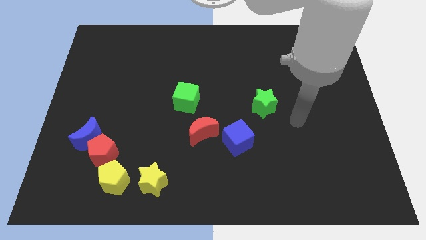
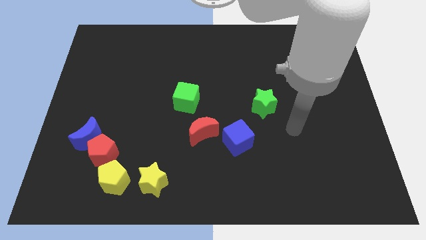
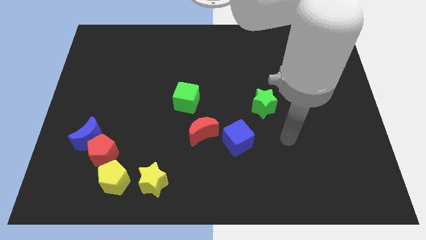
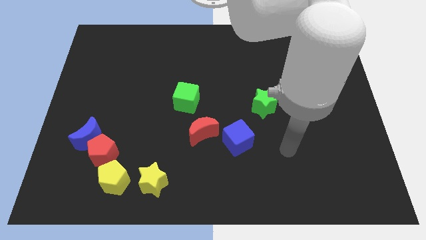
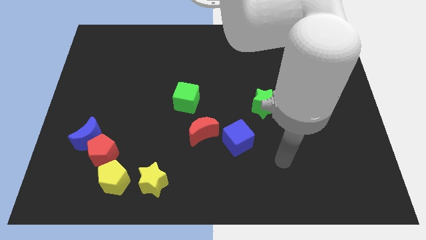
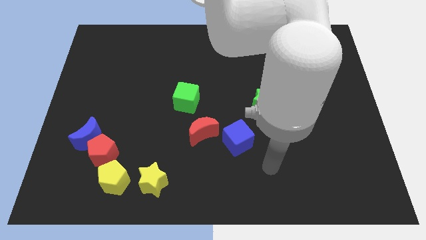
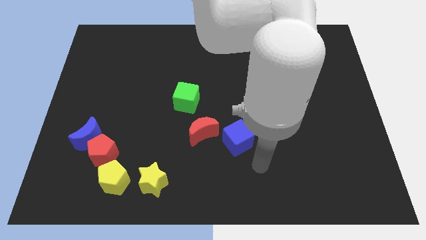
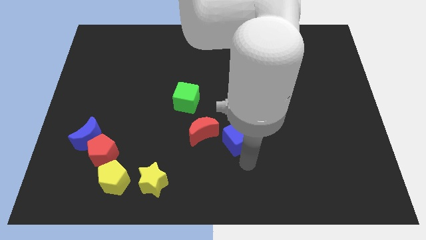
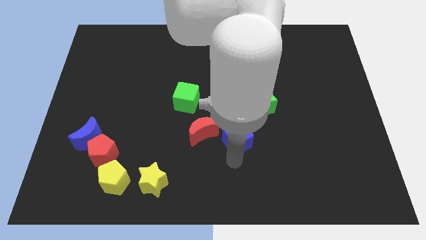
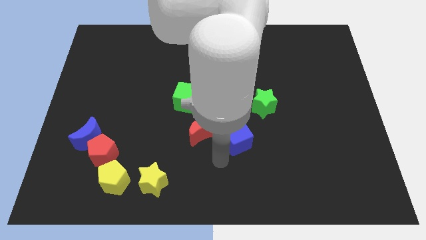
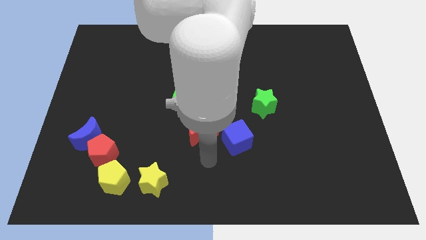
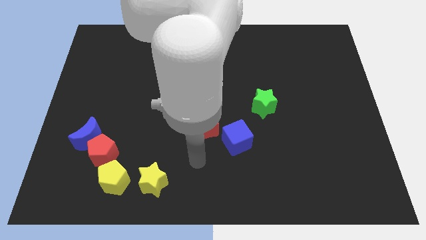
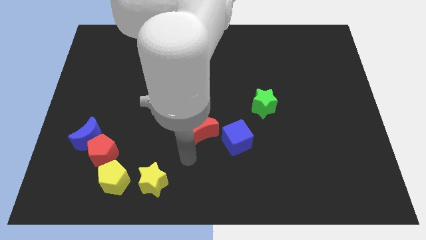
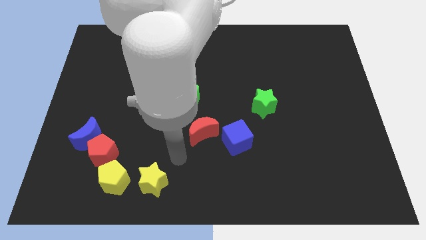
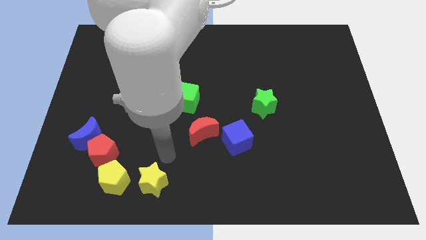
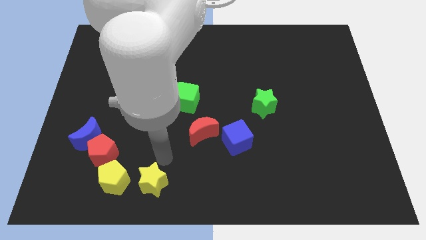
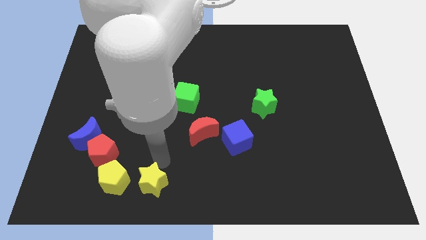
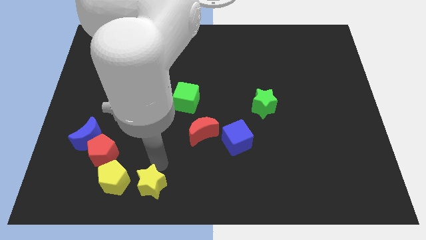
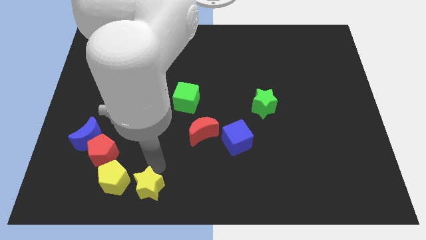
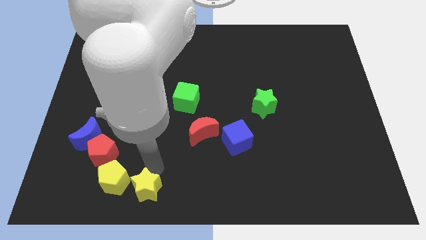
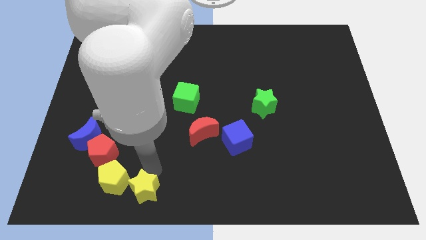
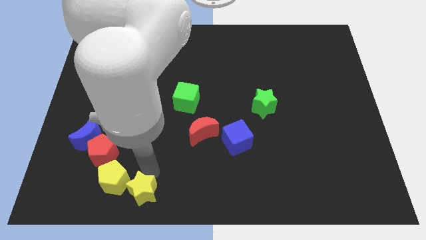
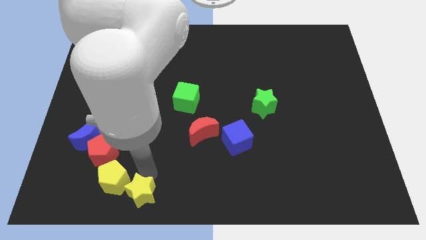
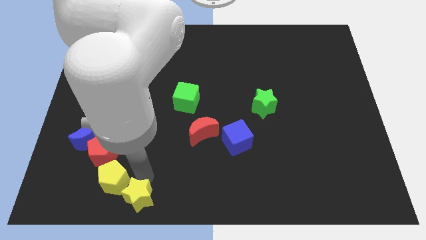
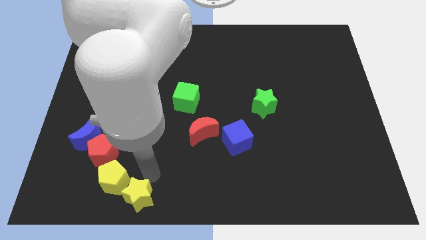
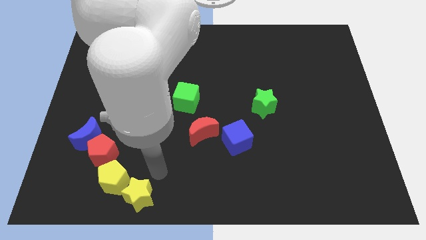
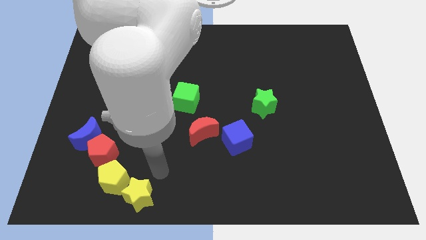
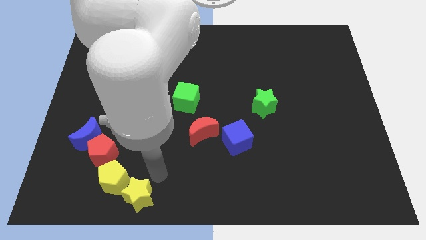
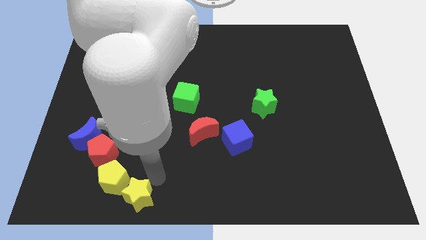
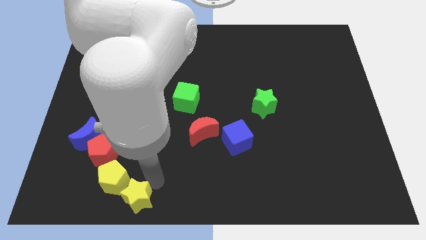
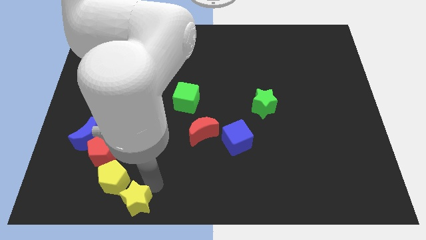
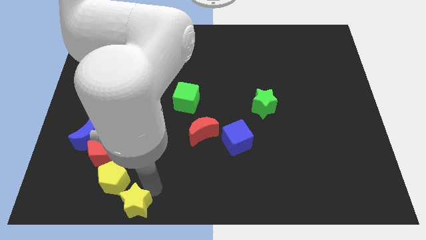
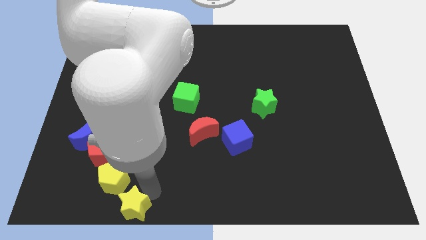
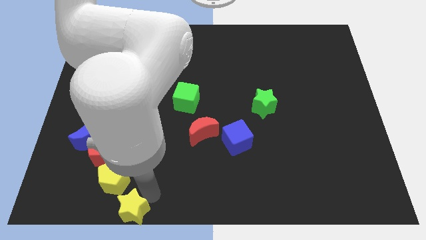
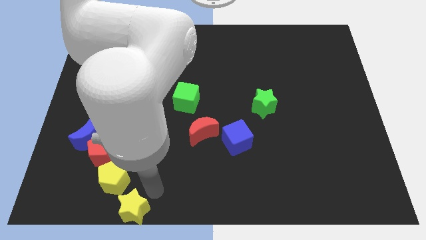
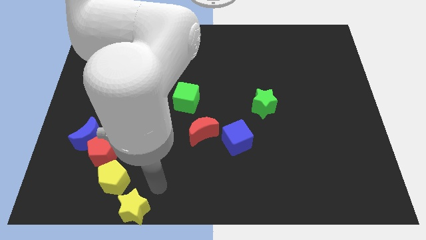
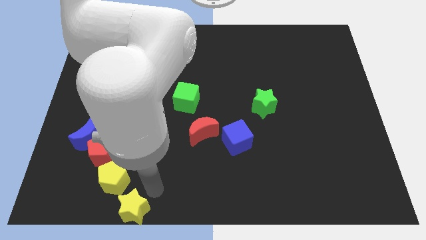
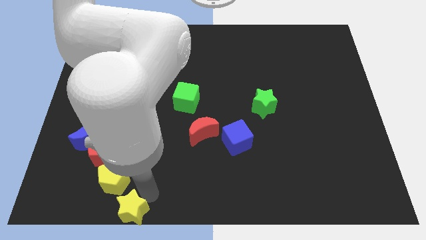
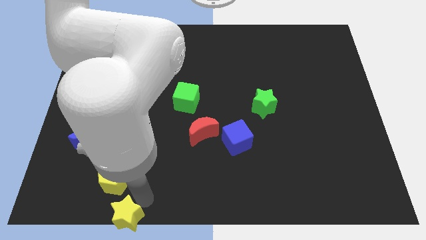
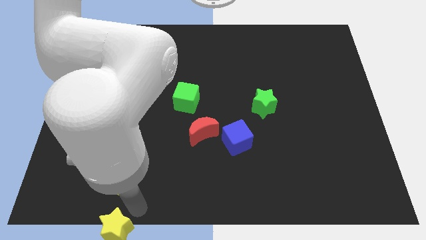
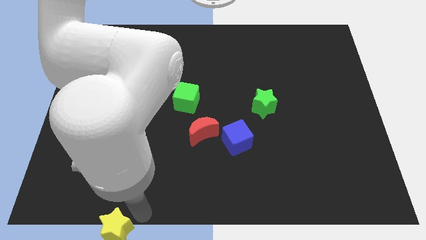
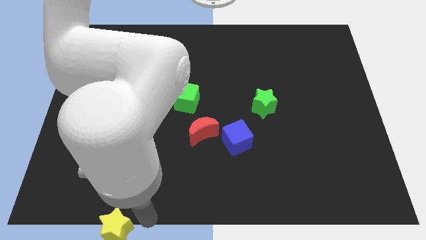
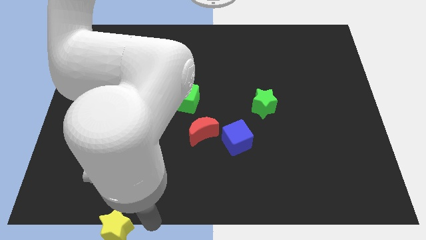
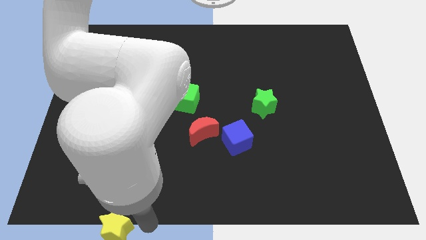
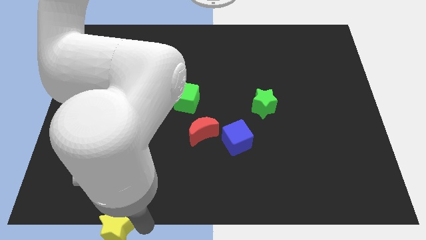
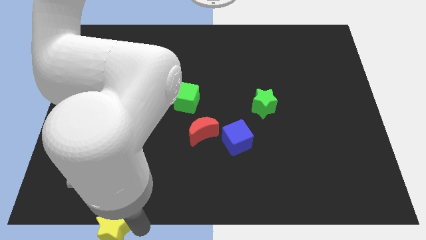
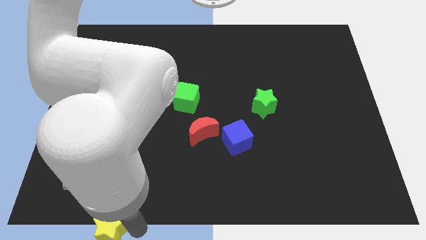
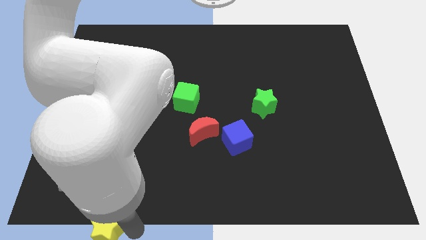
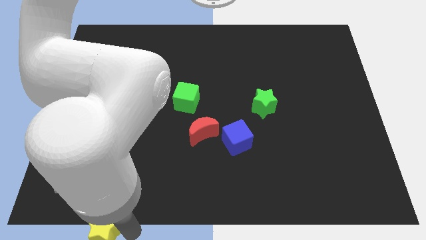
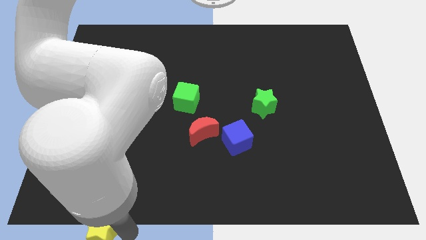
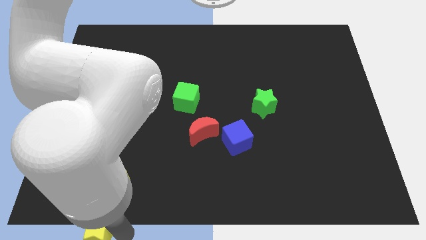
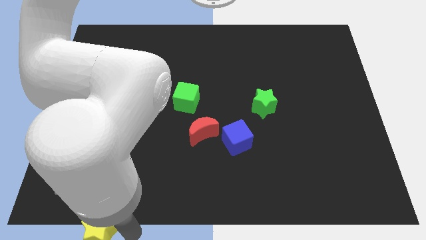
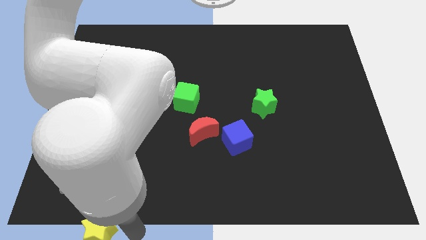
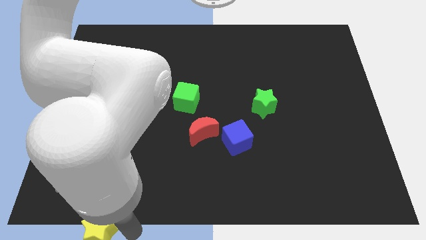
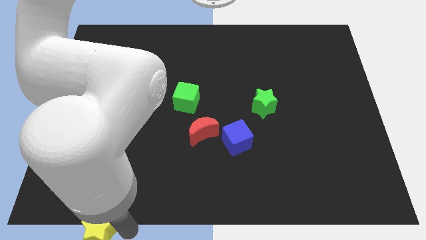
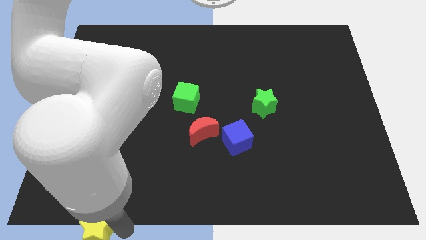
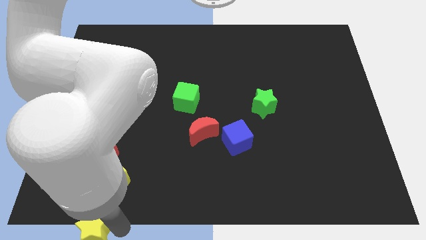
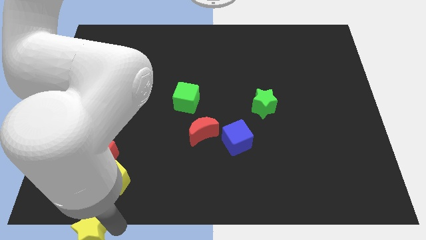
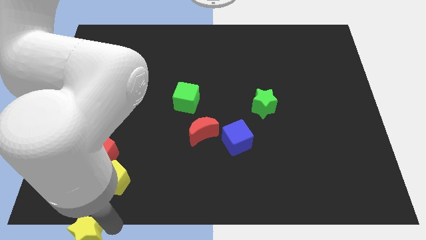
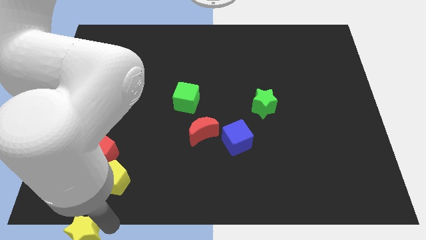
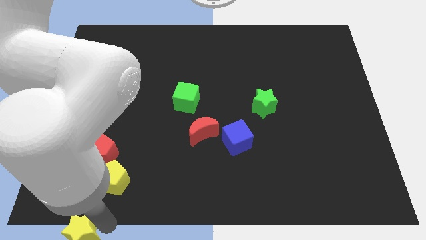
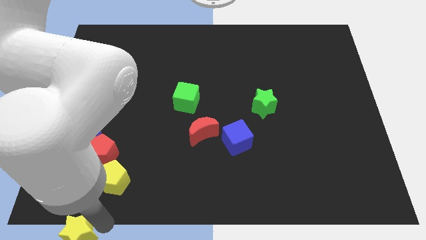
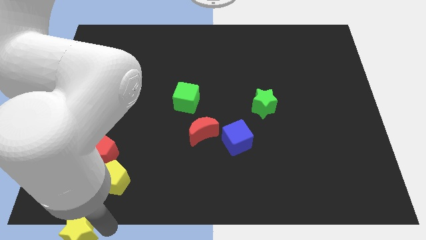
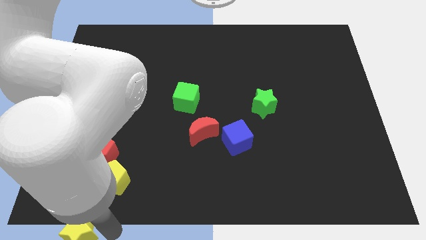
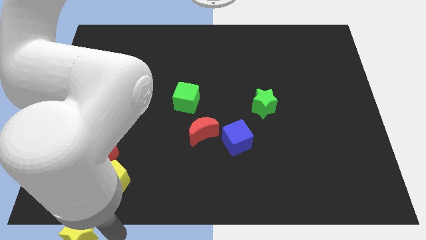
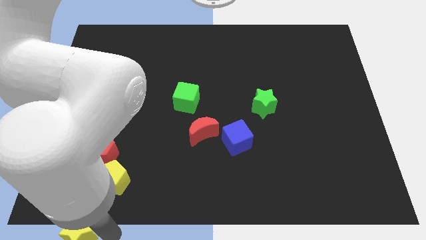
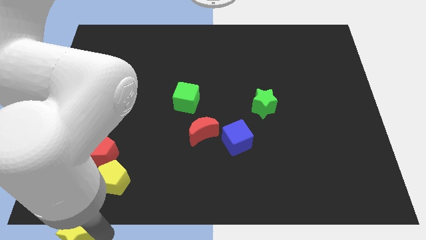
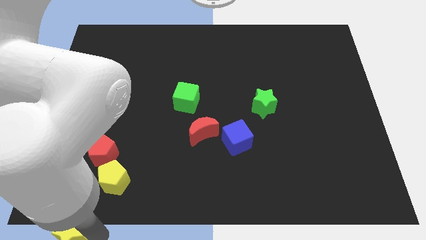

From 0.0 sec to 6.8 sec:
slide the yellow star to the lower left corner
